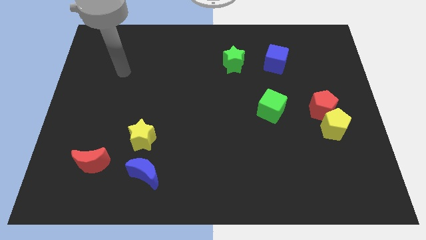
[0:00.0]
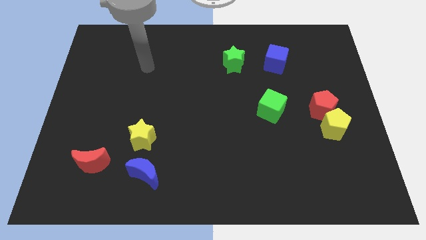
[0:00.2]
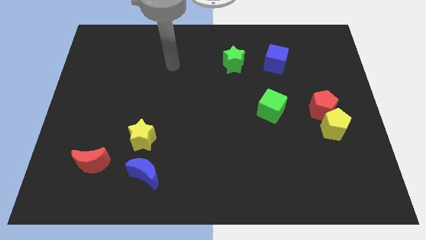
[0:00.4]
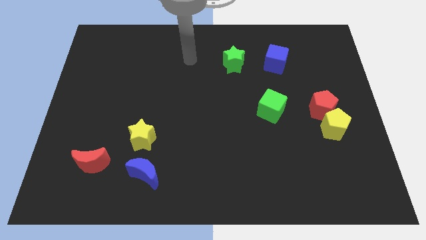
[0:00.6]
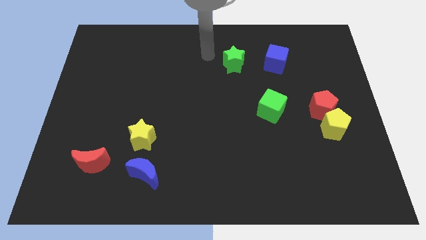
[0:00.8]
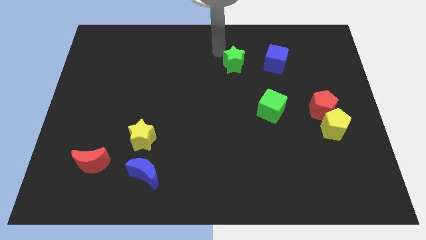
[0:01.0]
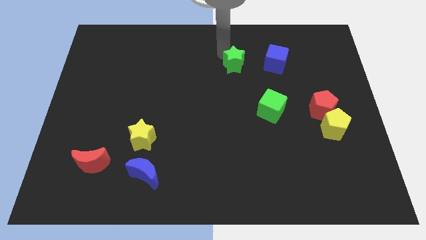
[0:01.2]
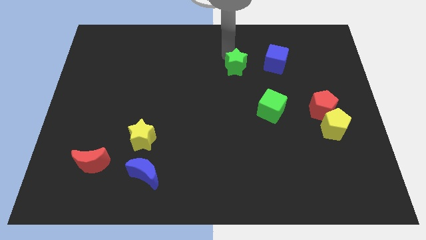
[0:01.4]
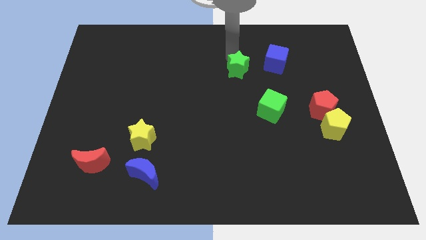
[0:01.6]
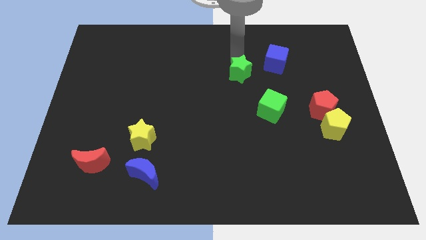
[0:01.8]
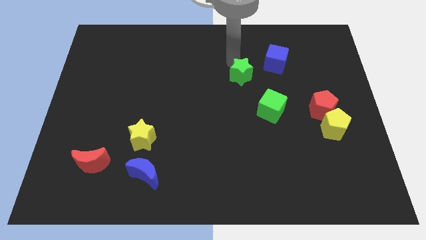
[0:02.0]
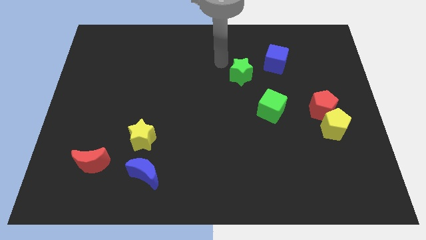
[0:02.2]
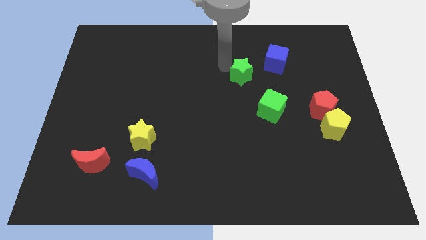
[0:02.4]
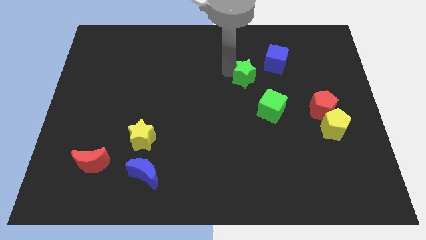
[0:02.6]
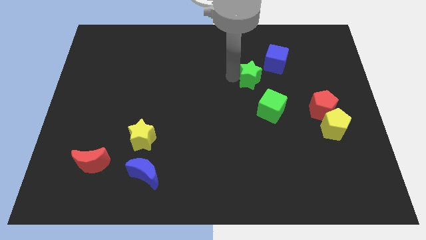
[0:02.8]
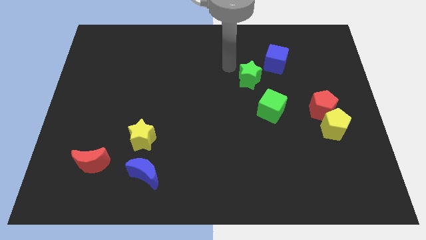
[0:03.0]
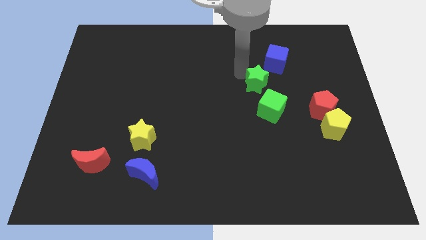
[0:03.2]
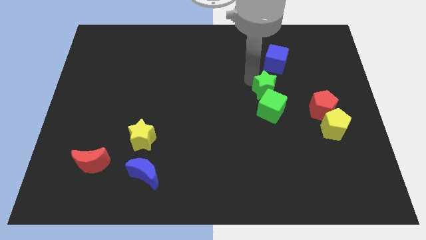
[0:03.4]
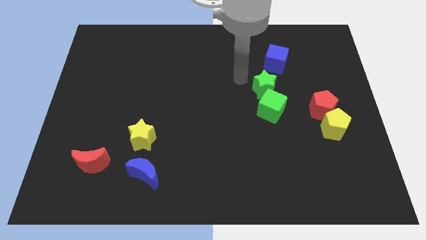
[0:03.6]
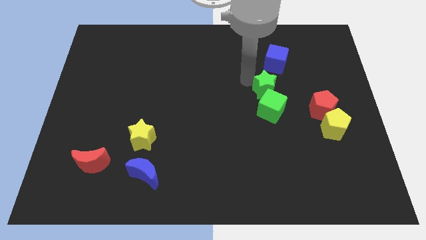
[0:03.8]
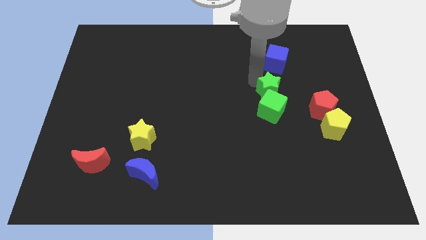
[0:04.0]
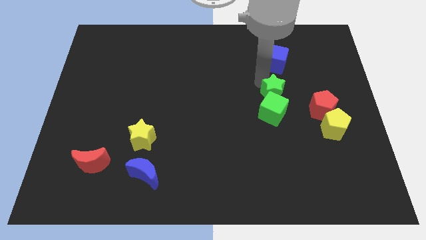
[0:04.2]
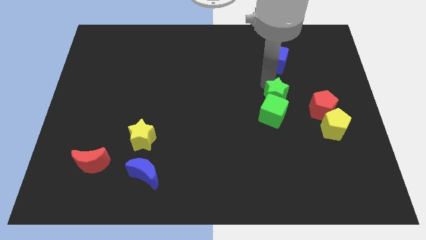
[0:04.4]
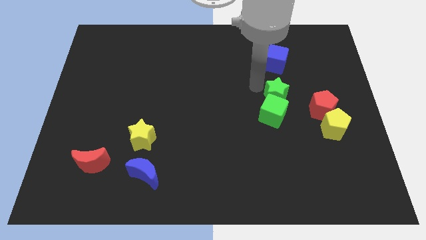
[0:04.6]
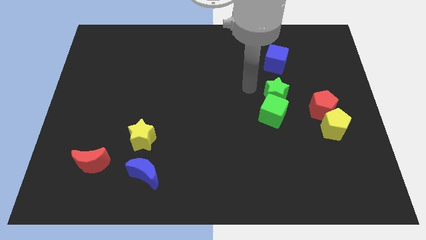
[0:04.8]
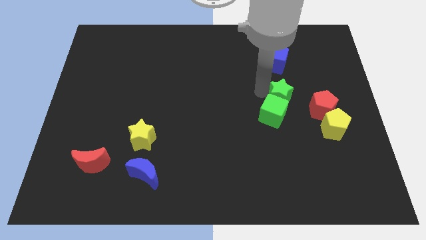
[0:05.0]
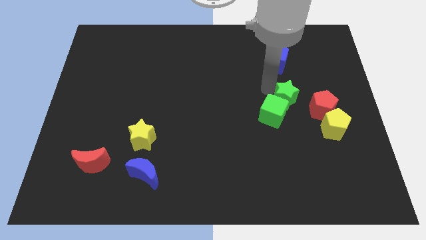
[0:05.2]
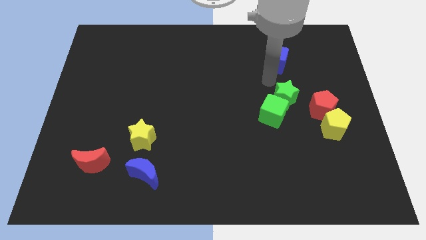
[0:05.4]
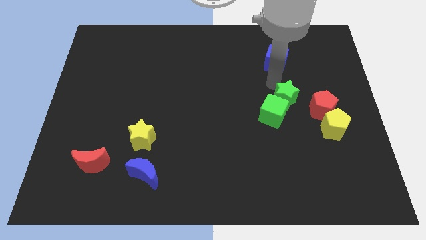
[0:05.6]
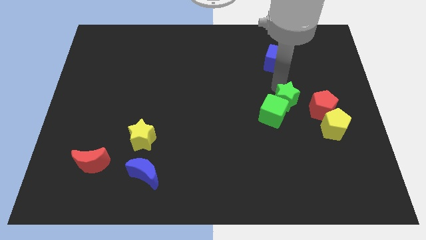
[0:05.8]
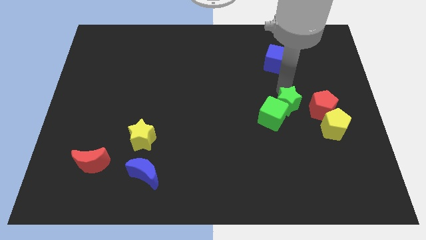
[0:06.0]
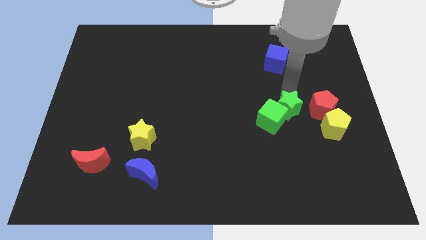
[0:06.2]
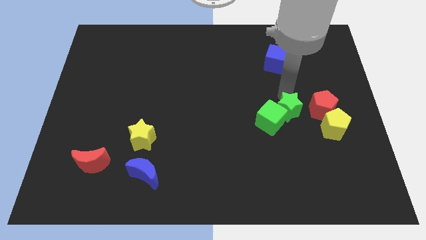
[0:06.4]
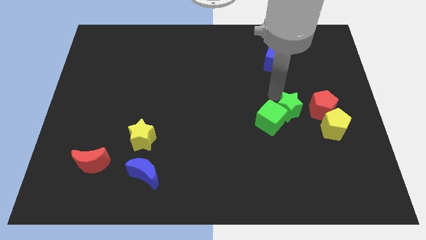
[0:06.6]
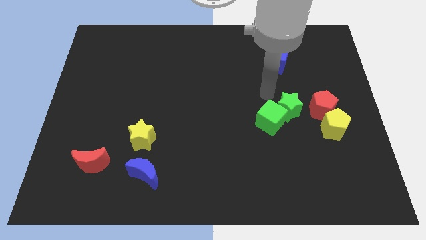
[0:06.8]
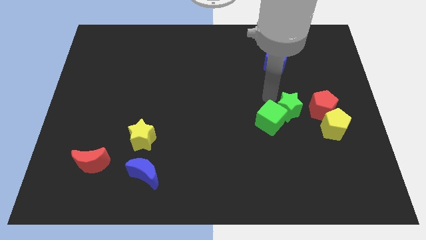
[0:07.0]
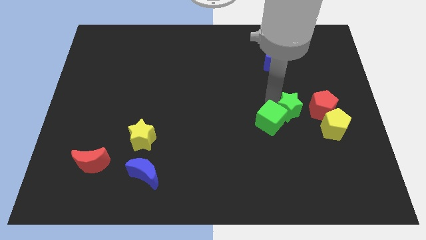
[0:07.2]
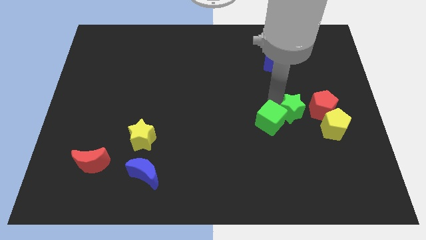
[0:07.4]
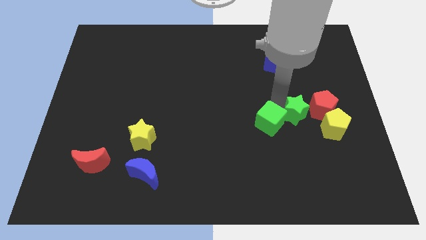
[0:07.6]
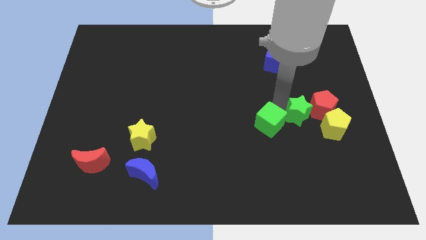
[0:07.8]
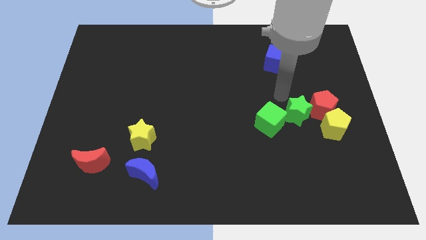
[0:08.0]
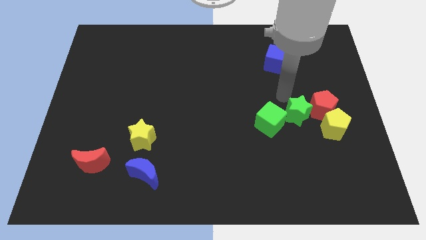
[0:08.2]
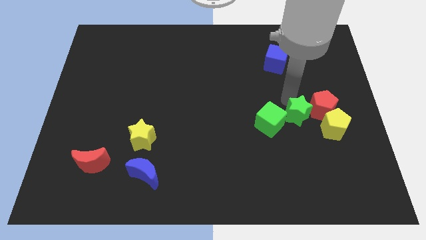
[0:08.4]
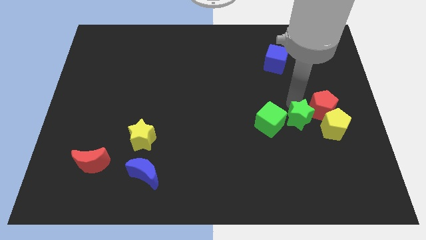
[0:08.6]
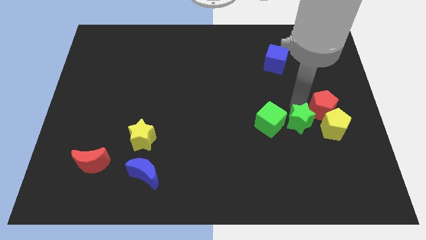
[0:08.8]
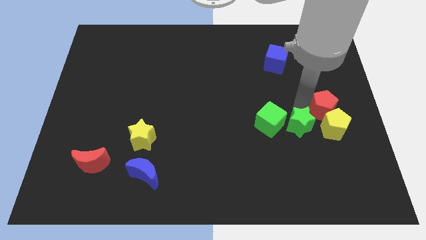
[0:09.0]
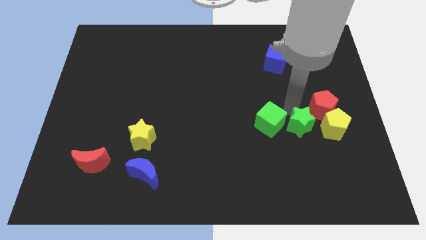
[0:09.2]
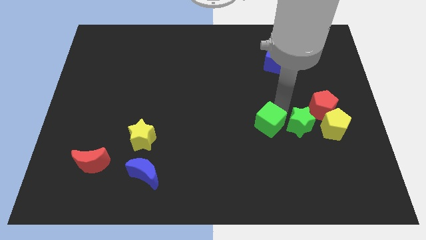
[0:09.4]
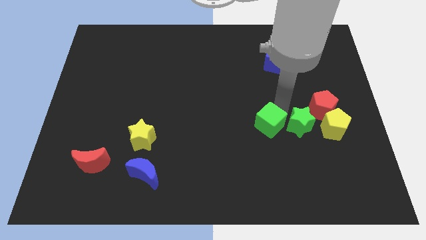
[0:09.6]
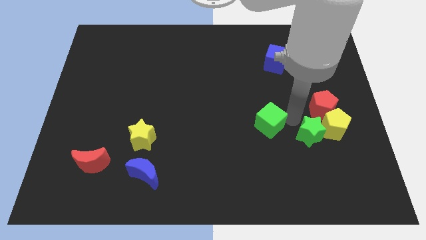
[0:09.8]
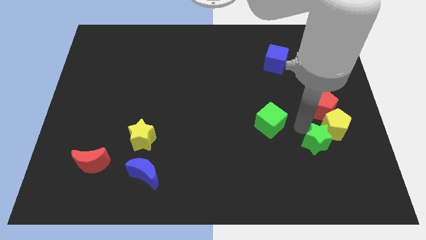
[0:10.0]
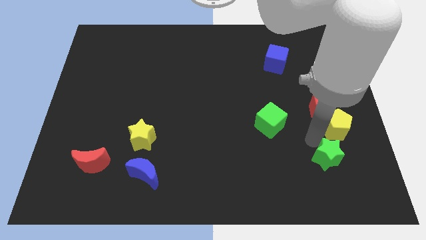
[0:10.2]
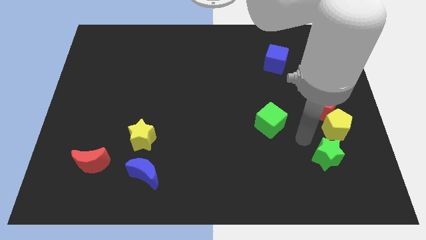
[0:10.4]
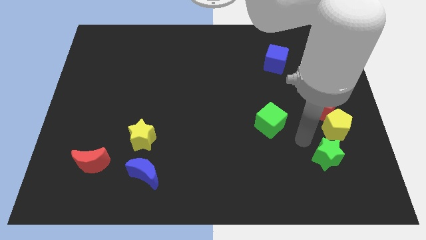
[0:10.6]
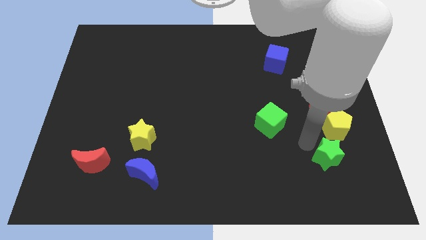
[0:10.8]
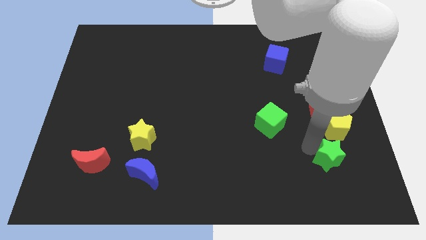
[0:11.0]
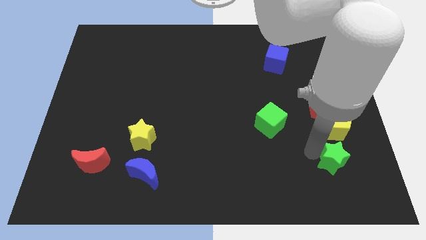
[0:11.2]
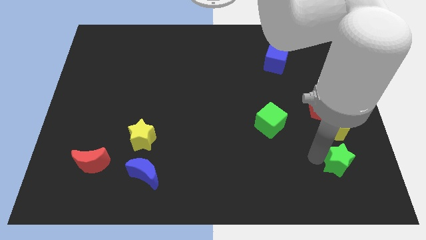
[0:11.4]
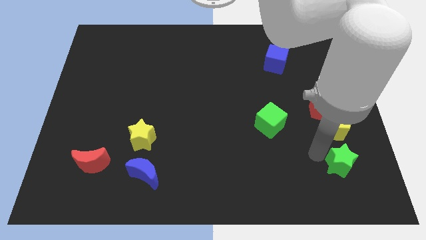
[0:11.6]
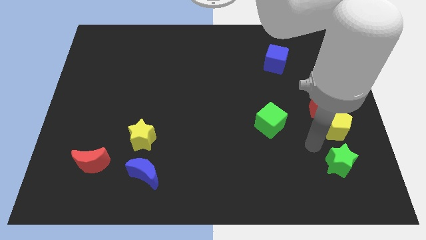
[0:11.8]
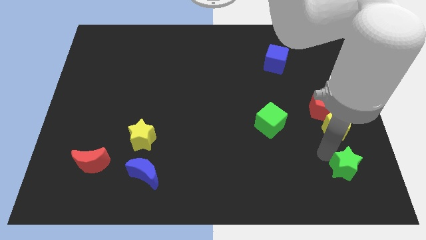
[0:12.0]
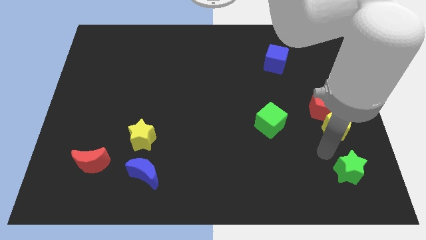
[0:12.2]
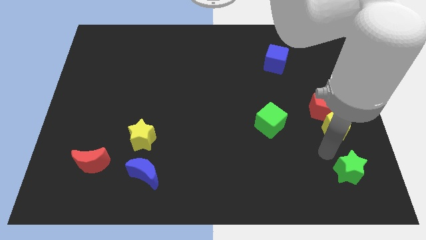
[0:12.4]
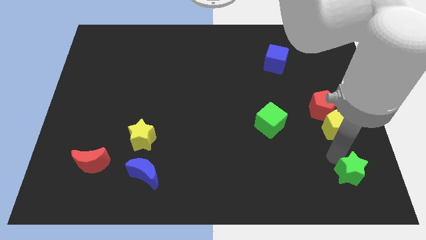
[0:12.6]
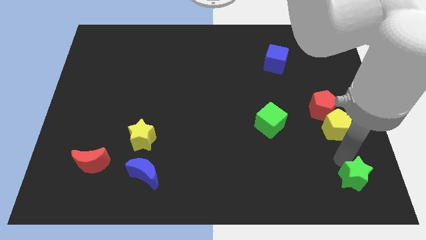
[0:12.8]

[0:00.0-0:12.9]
slide the green star to the lower right corner

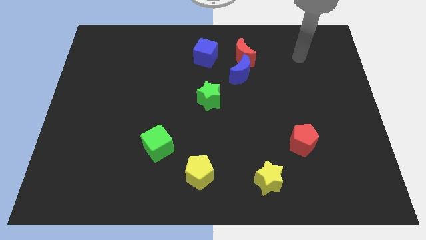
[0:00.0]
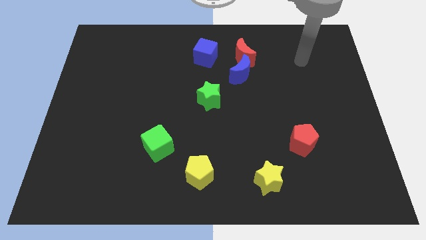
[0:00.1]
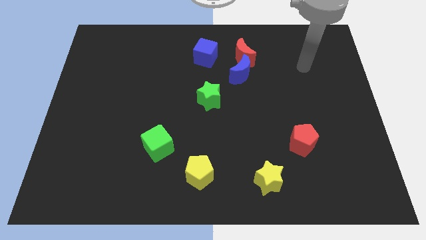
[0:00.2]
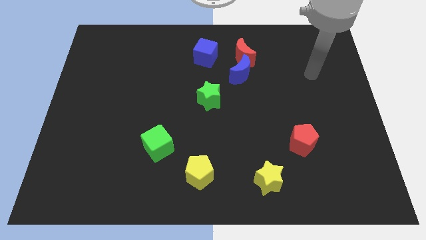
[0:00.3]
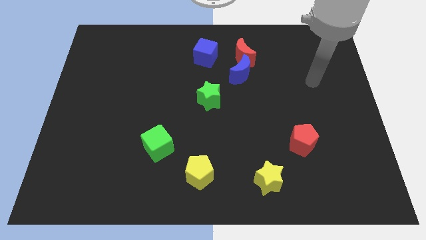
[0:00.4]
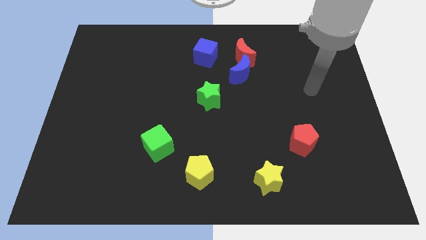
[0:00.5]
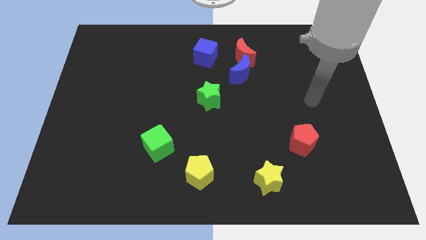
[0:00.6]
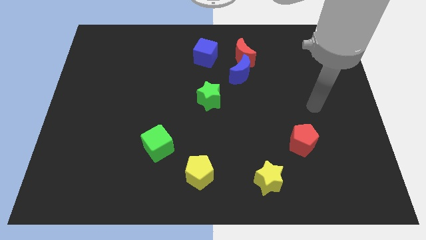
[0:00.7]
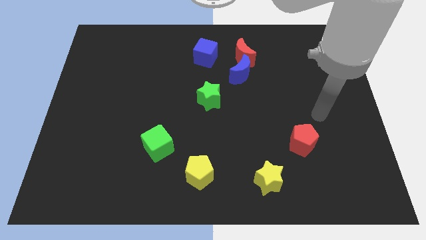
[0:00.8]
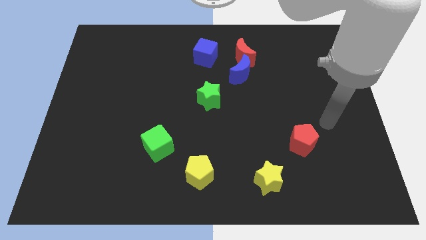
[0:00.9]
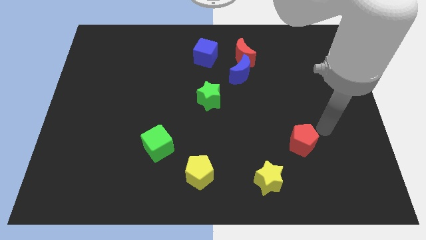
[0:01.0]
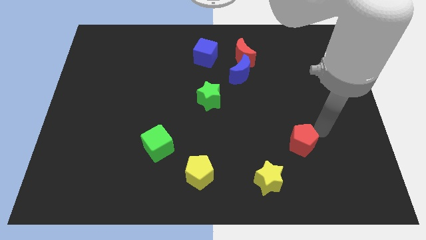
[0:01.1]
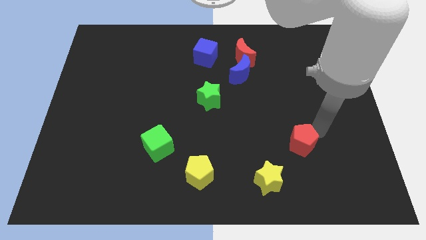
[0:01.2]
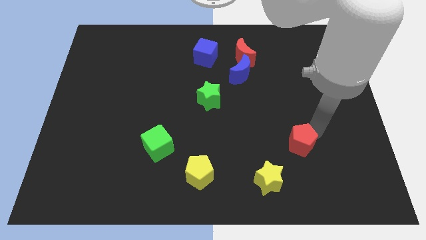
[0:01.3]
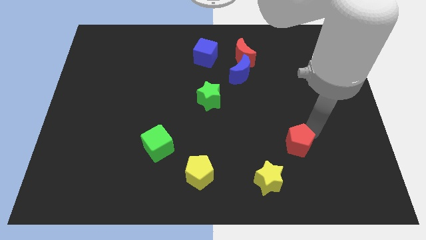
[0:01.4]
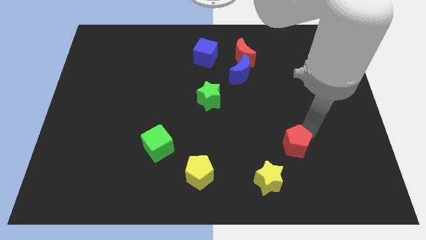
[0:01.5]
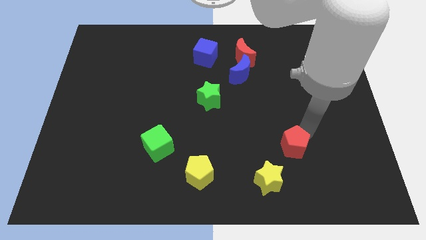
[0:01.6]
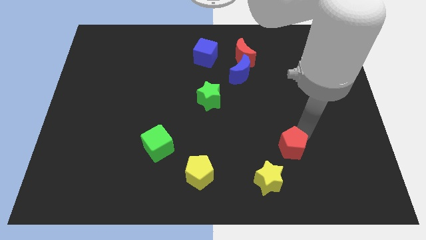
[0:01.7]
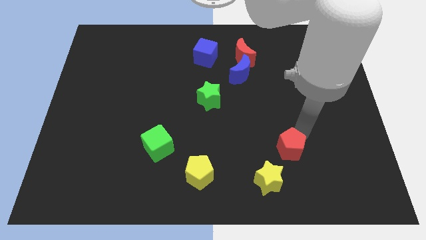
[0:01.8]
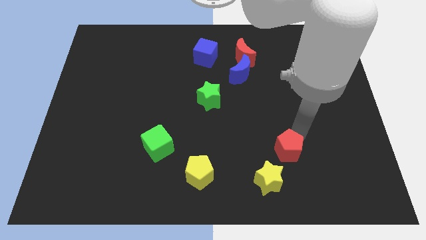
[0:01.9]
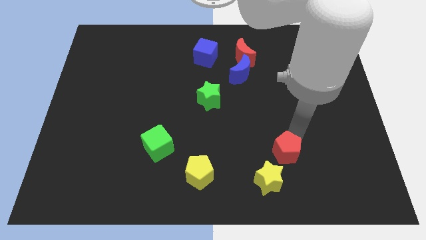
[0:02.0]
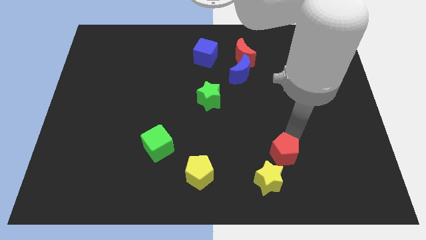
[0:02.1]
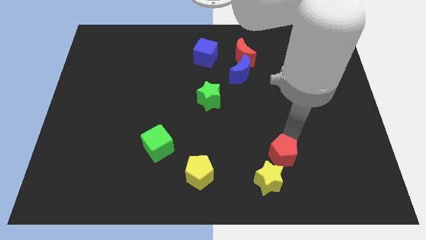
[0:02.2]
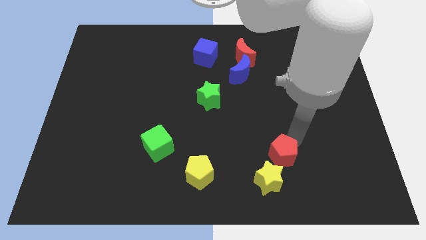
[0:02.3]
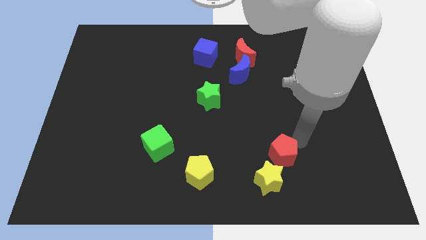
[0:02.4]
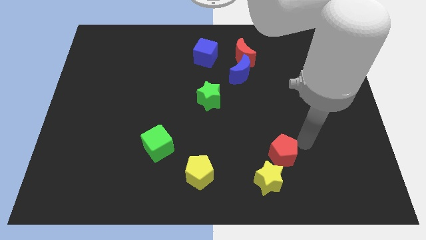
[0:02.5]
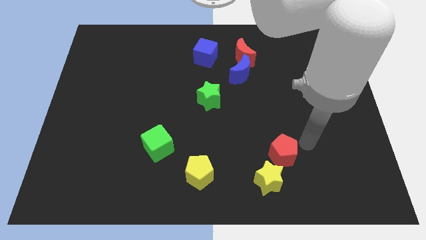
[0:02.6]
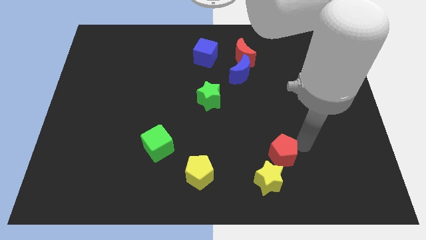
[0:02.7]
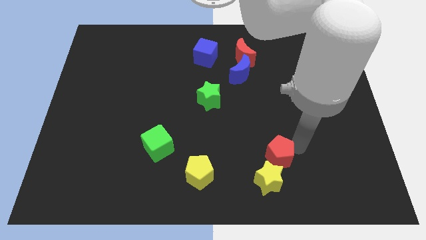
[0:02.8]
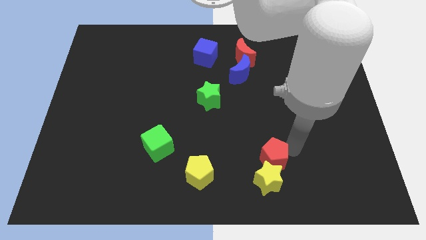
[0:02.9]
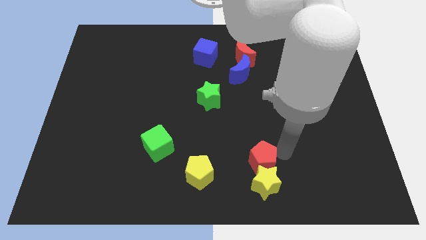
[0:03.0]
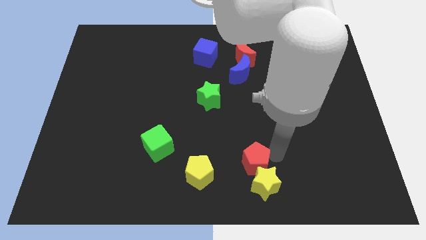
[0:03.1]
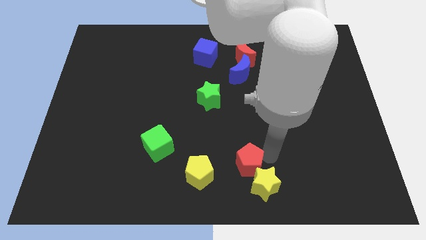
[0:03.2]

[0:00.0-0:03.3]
put the red pentagon to the bottom side
